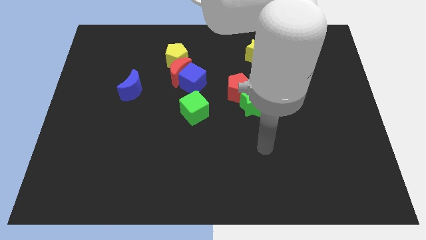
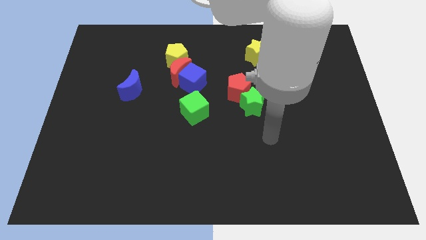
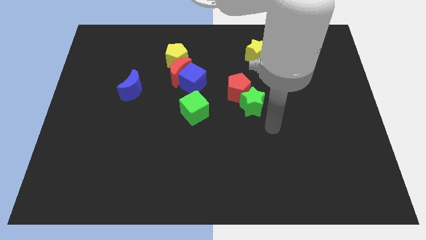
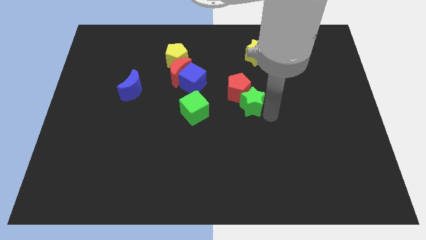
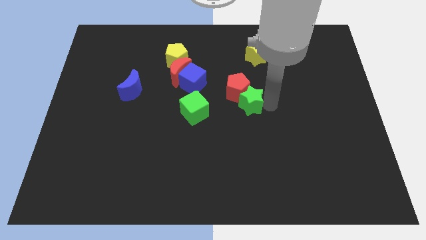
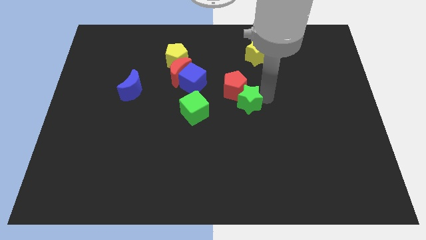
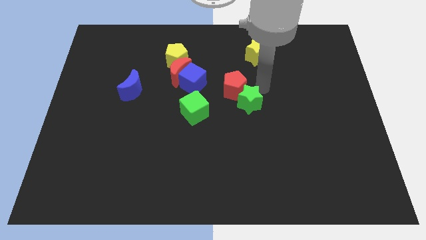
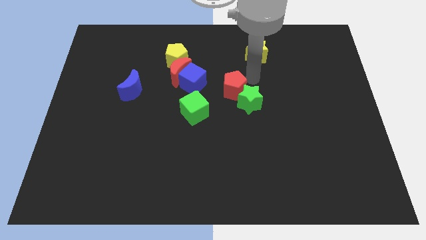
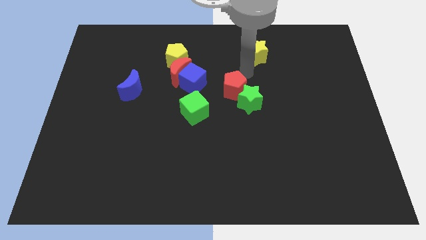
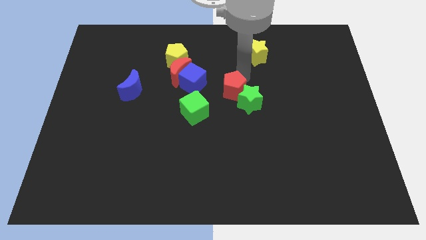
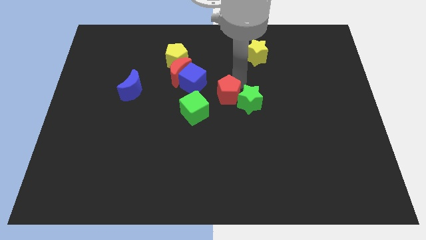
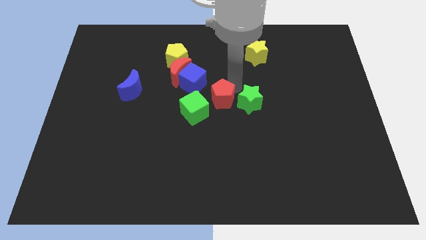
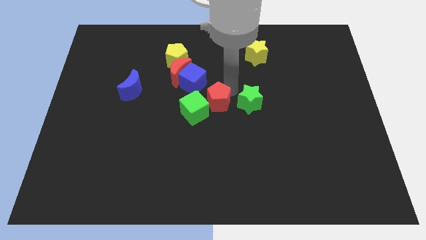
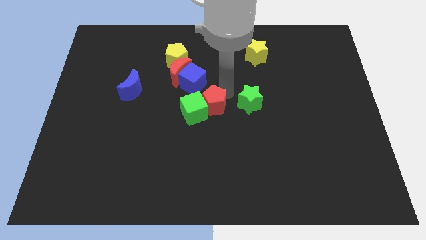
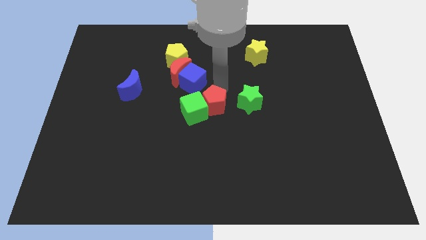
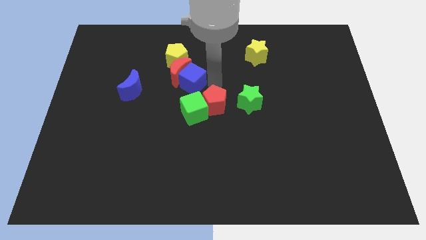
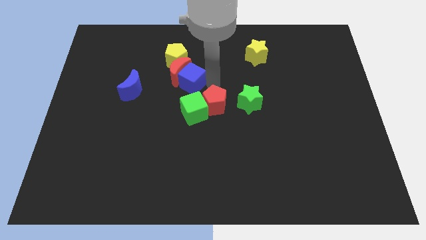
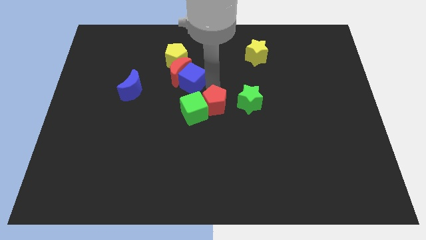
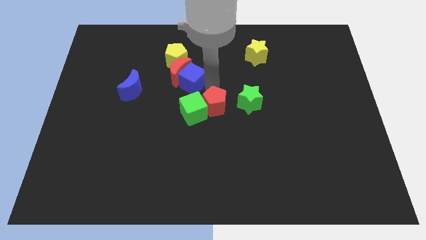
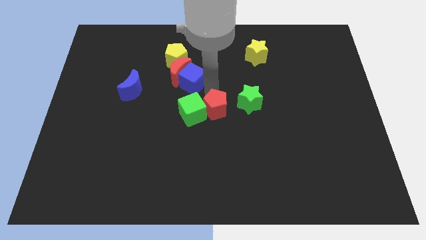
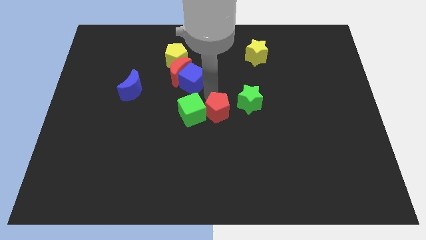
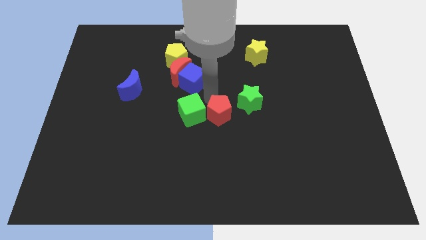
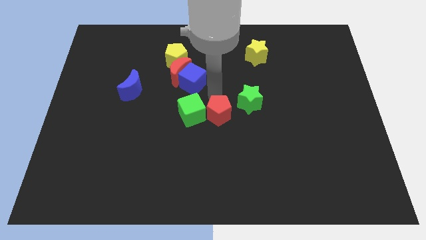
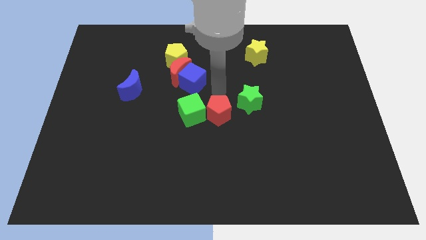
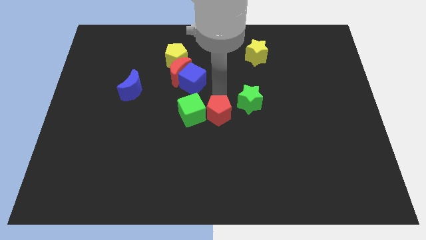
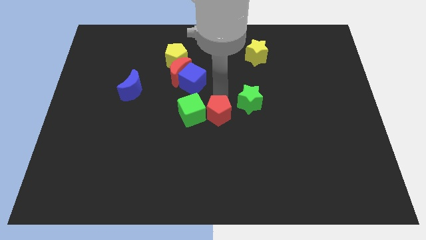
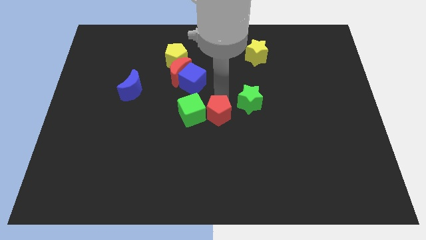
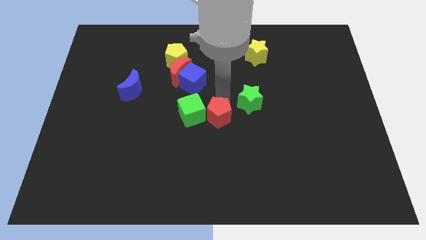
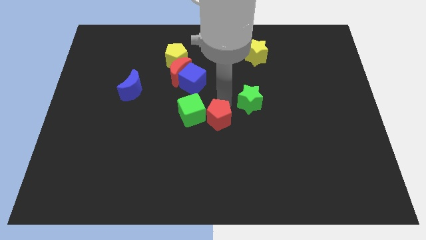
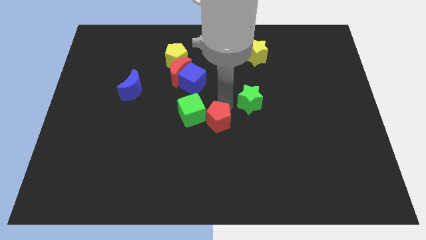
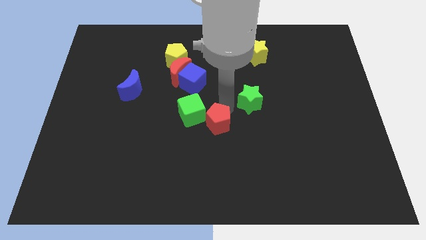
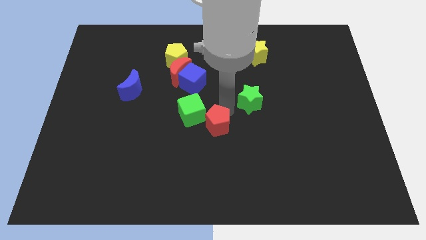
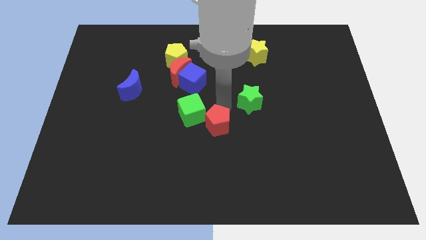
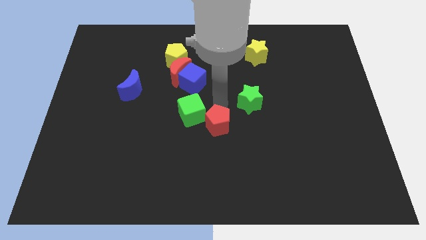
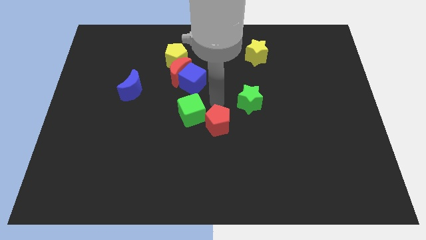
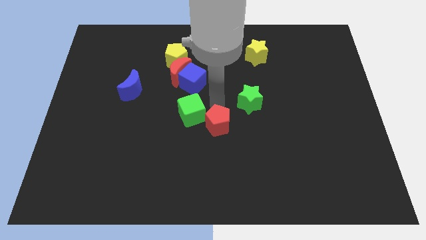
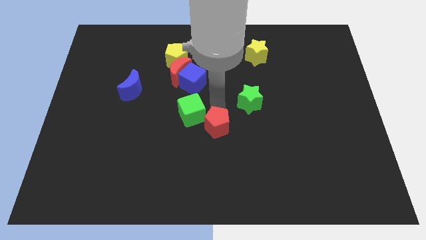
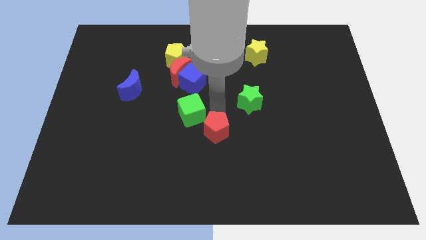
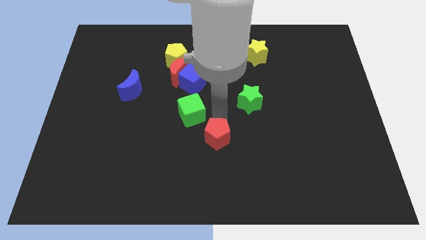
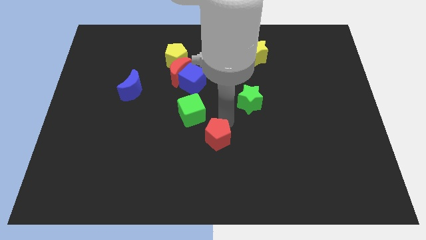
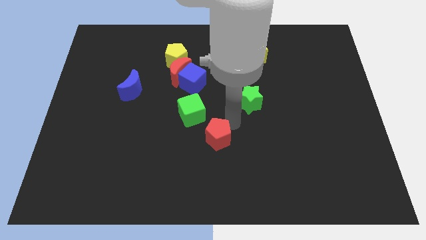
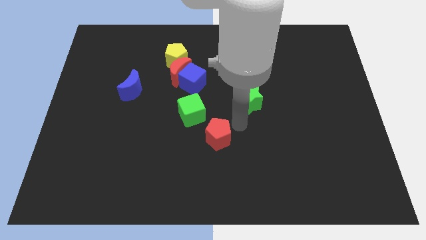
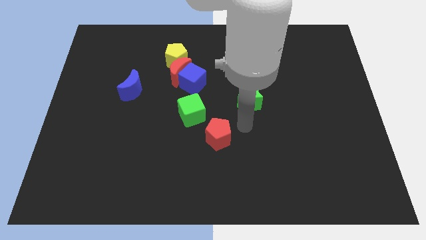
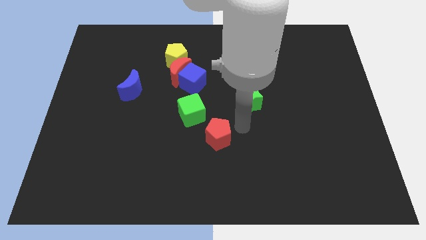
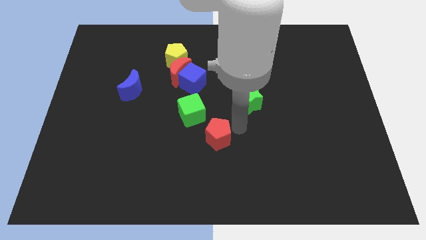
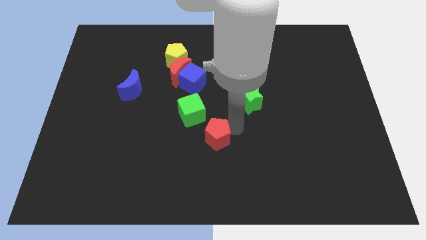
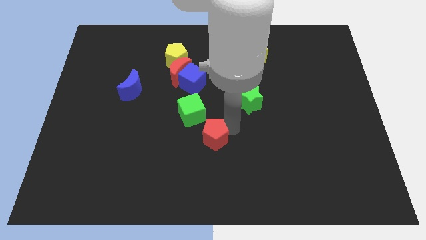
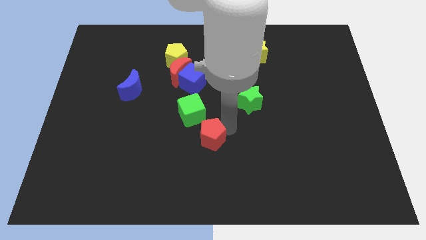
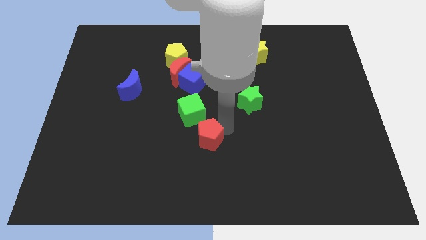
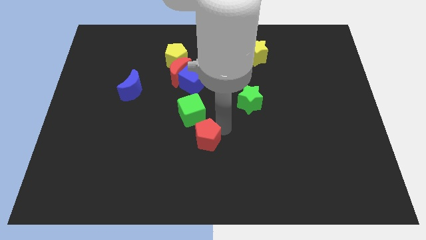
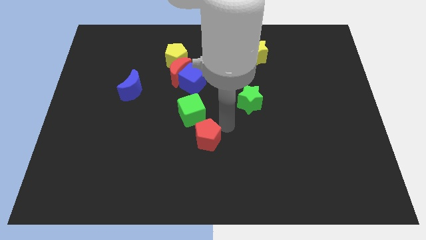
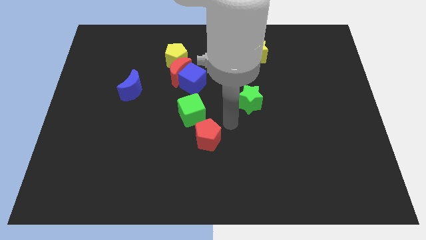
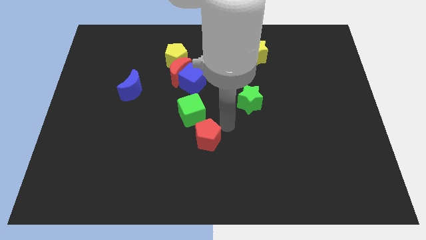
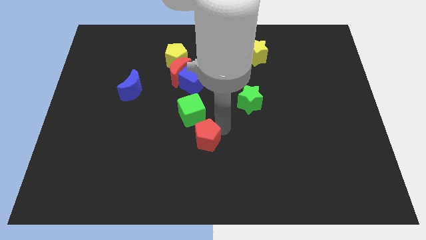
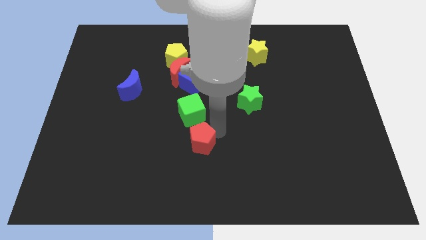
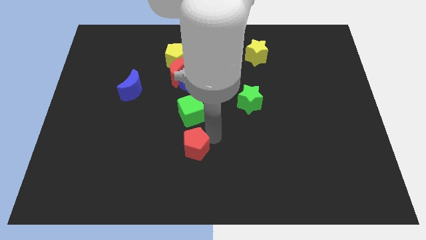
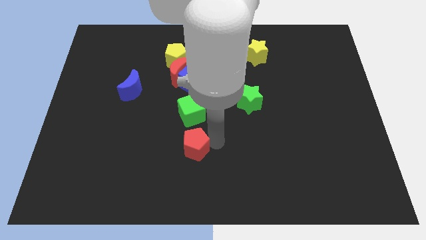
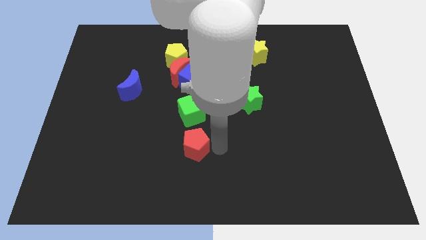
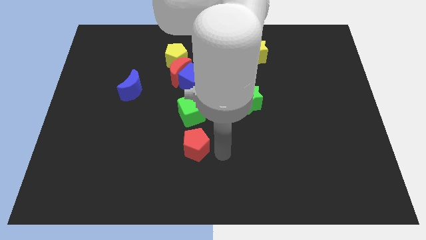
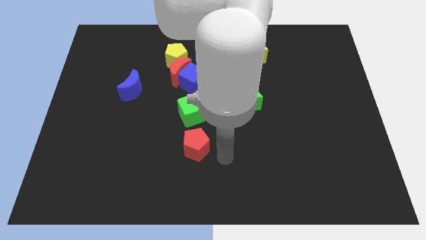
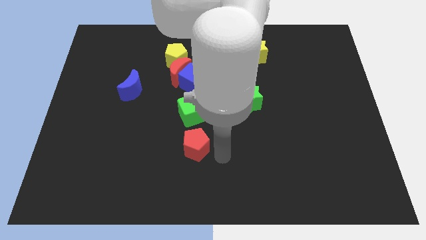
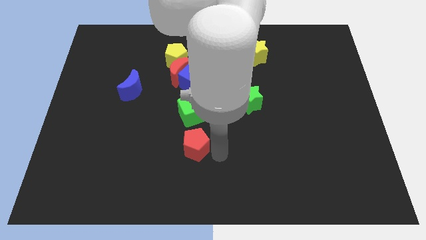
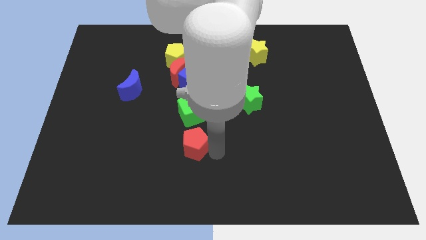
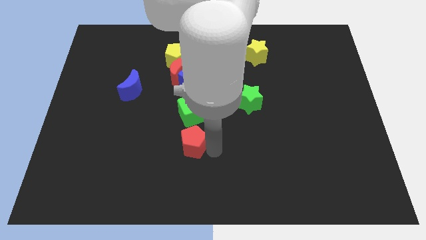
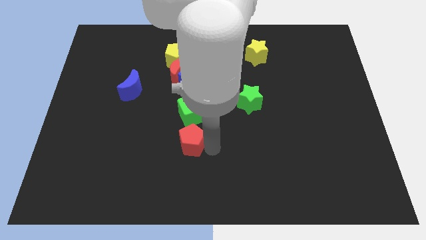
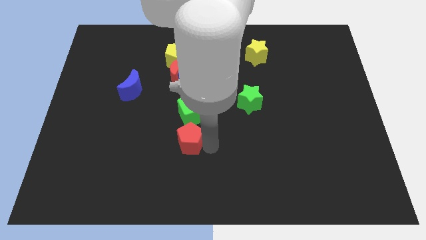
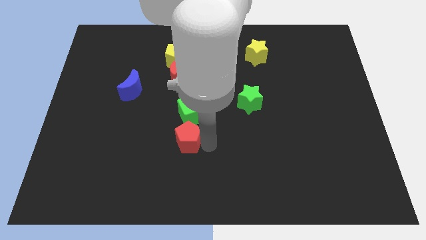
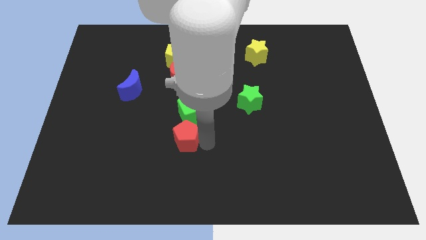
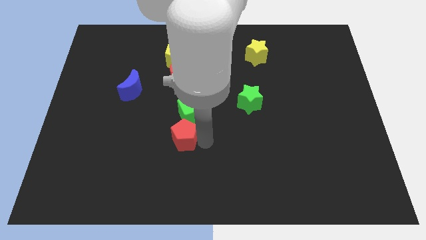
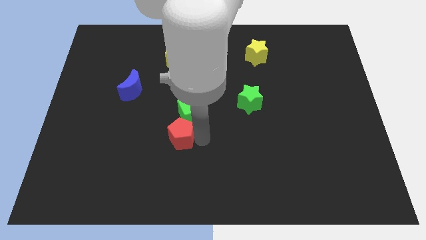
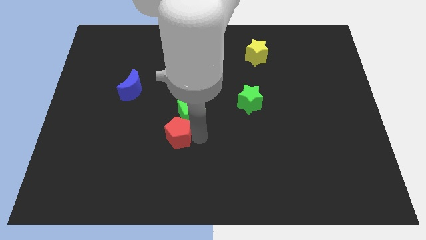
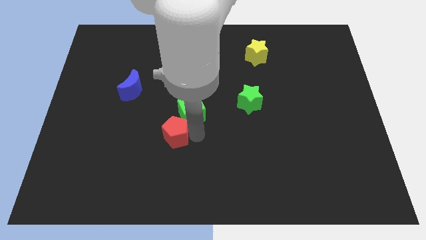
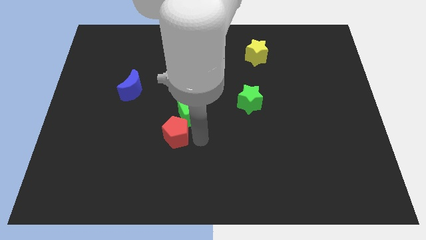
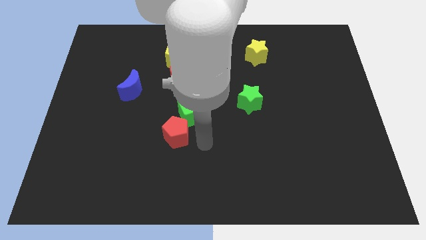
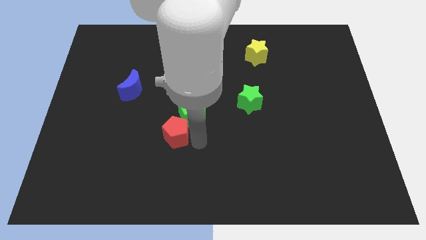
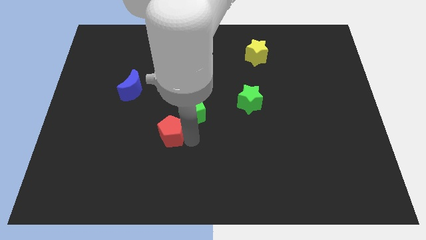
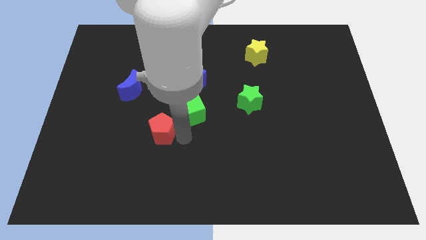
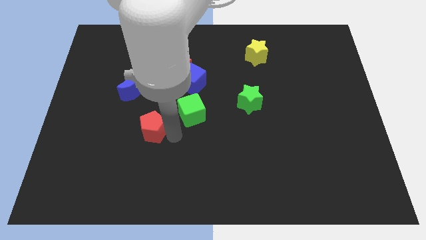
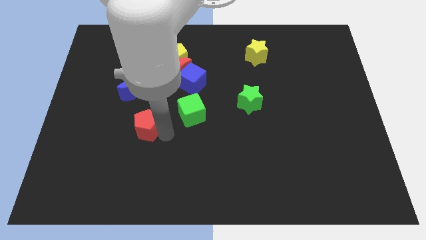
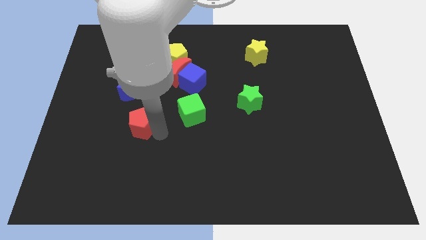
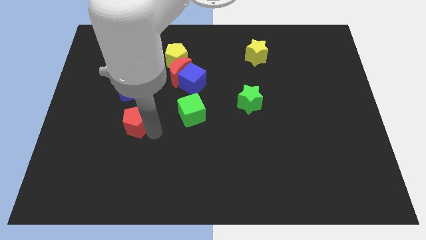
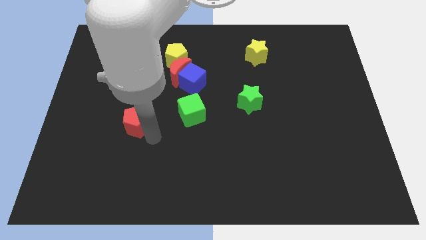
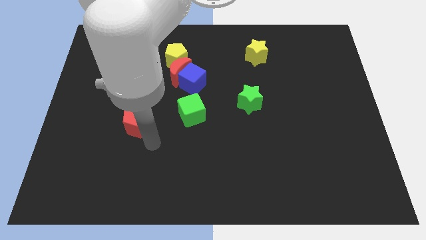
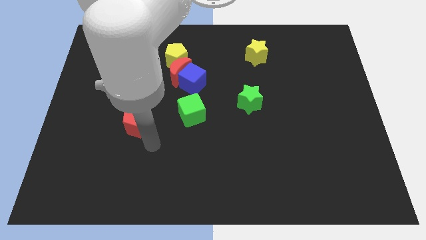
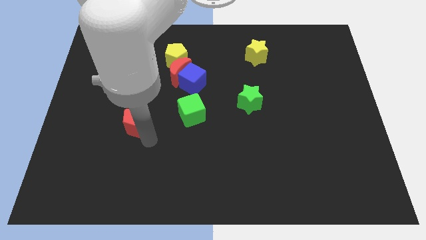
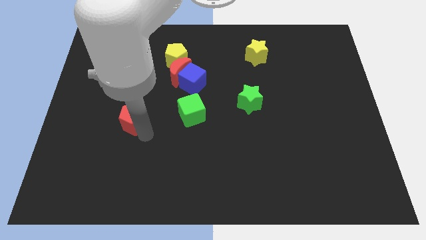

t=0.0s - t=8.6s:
slide the red pentagon to the left
